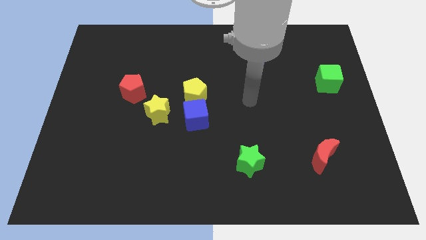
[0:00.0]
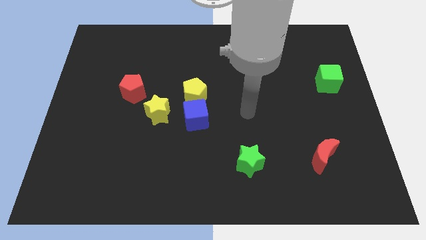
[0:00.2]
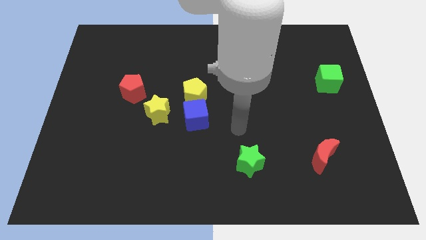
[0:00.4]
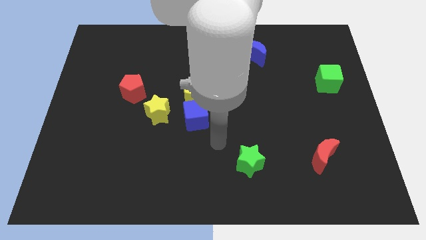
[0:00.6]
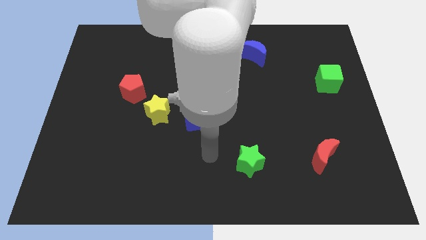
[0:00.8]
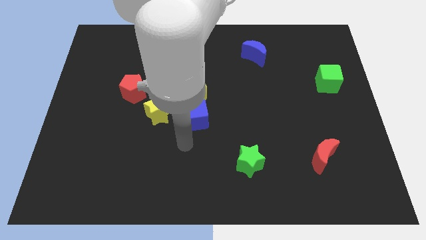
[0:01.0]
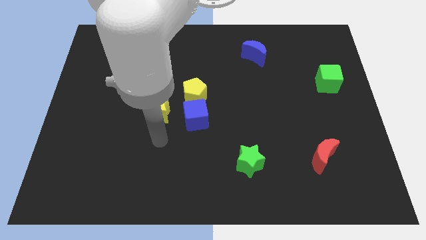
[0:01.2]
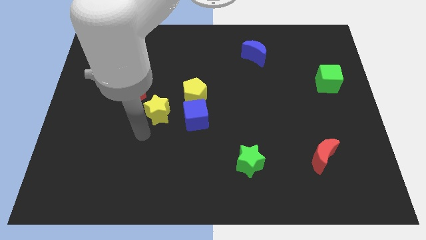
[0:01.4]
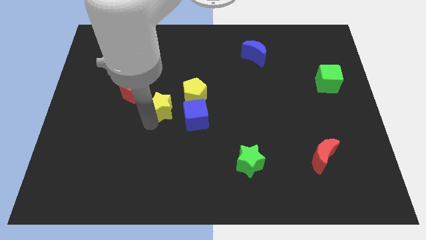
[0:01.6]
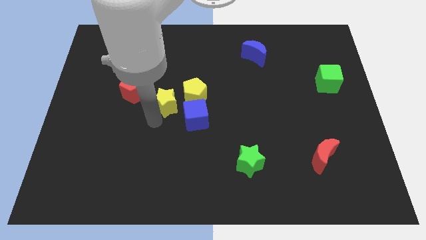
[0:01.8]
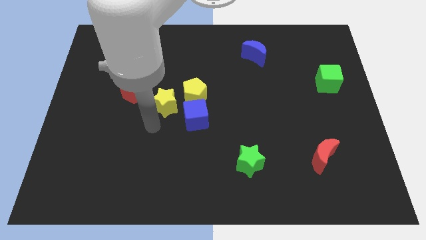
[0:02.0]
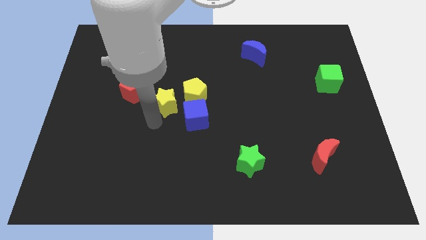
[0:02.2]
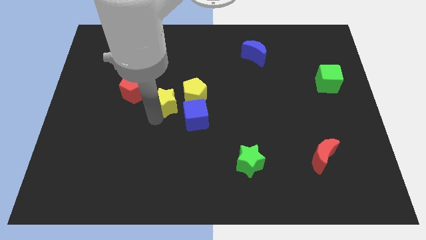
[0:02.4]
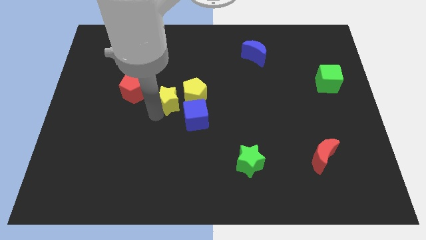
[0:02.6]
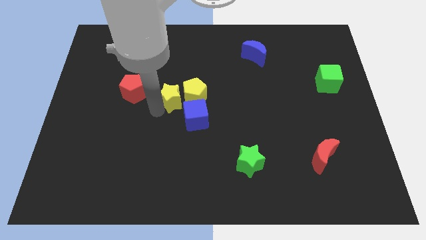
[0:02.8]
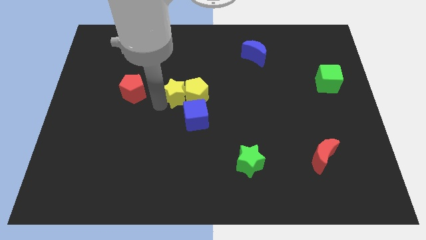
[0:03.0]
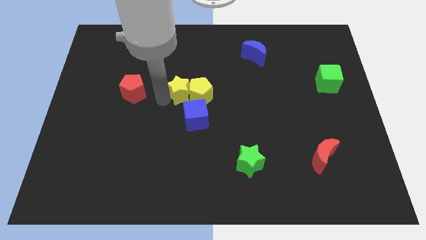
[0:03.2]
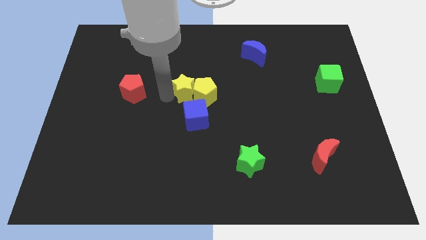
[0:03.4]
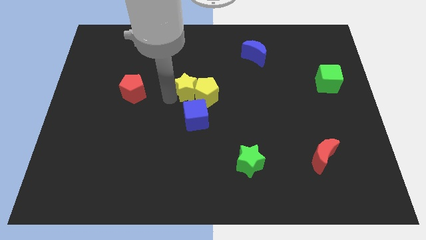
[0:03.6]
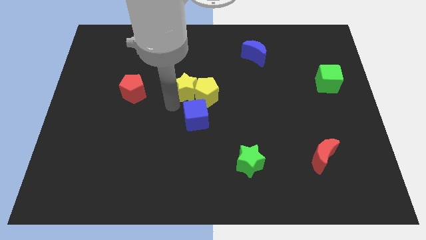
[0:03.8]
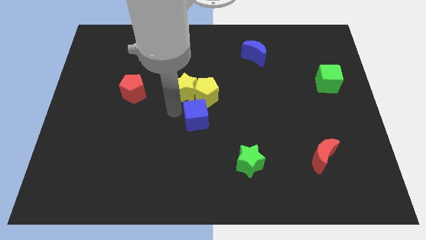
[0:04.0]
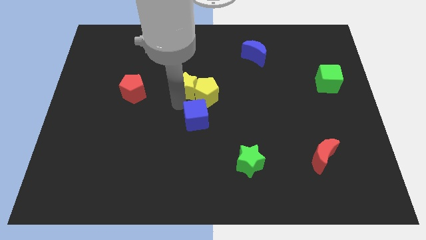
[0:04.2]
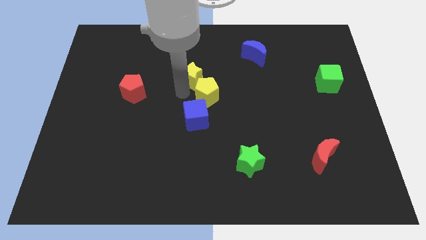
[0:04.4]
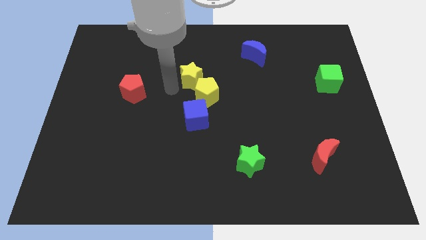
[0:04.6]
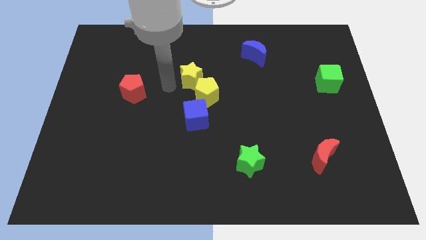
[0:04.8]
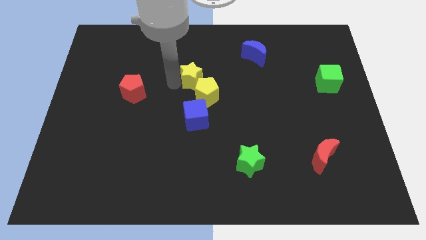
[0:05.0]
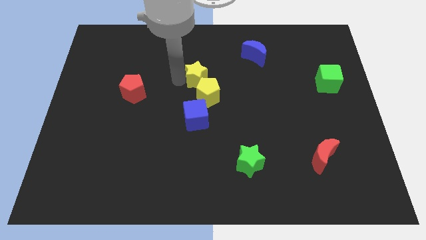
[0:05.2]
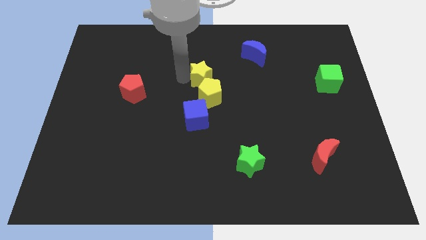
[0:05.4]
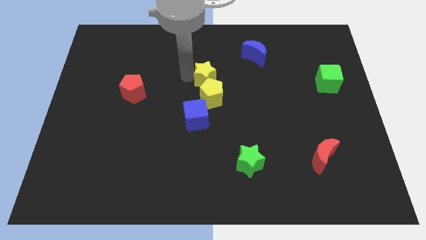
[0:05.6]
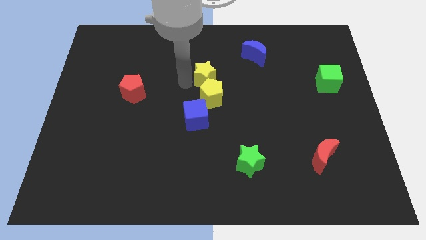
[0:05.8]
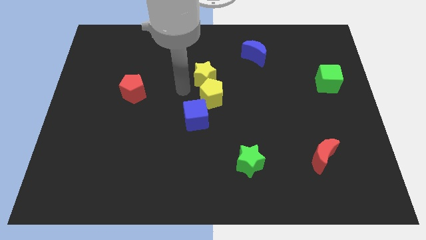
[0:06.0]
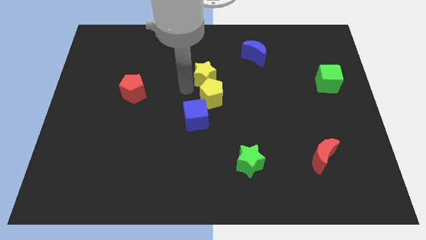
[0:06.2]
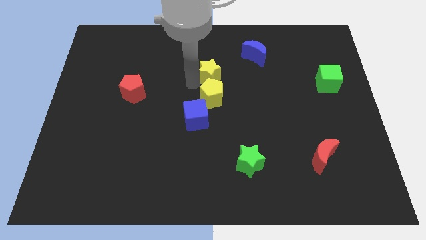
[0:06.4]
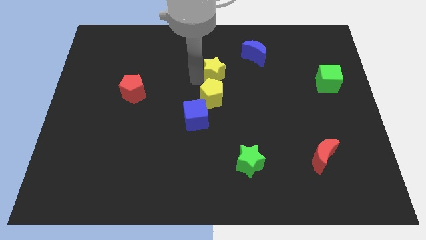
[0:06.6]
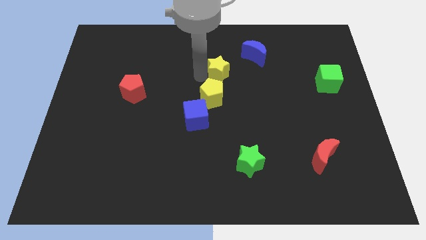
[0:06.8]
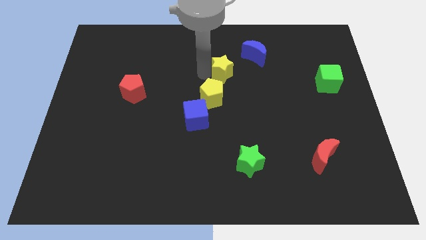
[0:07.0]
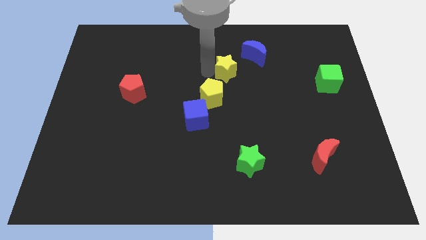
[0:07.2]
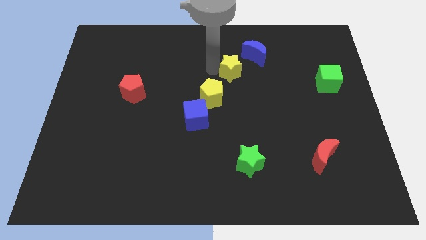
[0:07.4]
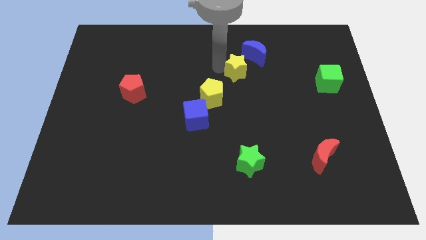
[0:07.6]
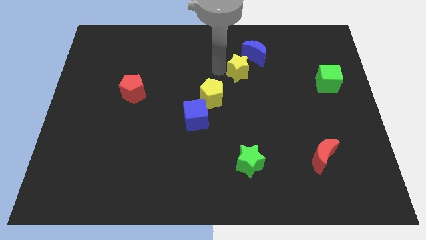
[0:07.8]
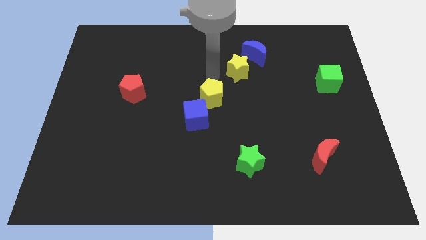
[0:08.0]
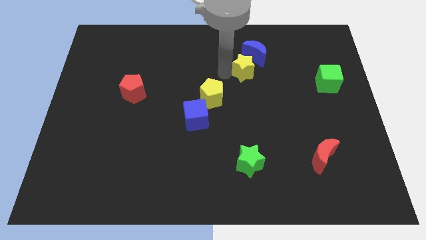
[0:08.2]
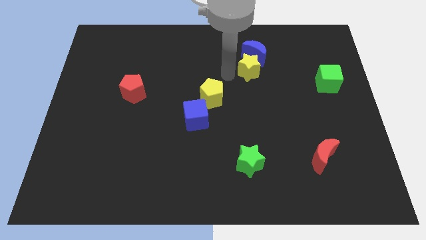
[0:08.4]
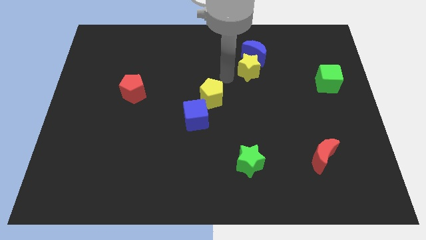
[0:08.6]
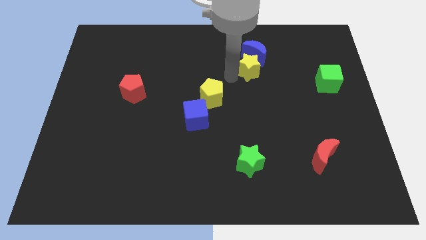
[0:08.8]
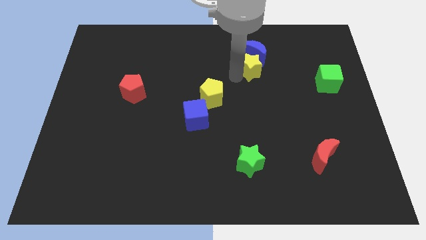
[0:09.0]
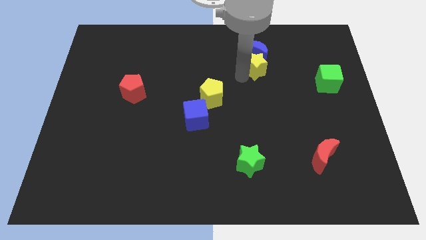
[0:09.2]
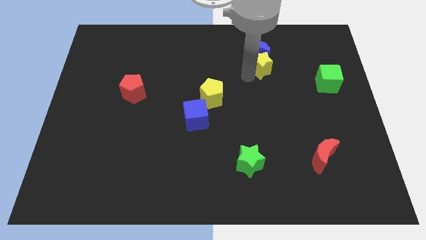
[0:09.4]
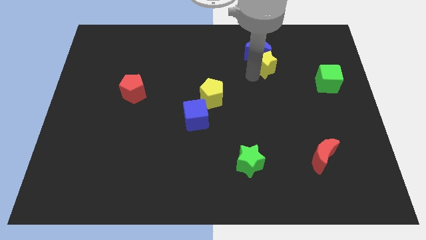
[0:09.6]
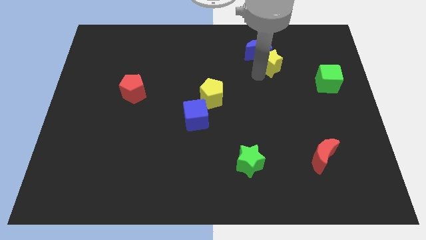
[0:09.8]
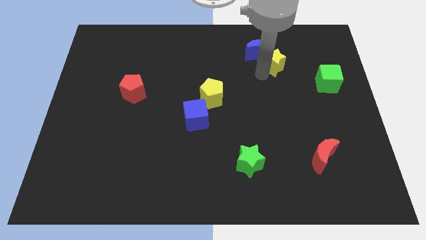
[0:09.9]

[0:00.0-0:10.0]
move the yellow star just right of the blue moon

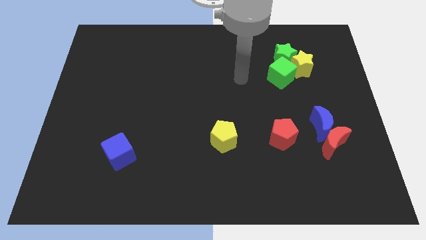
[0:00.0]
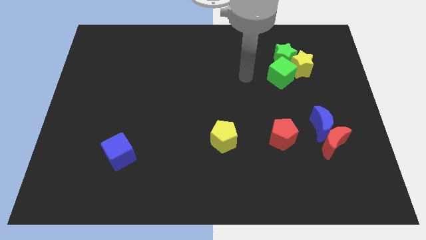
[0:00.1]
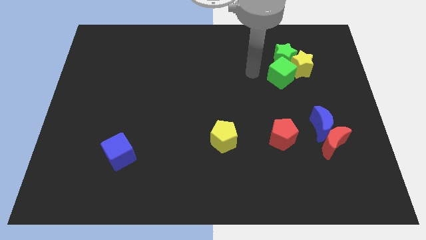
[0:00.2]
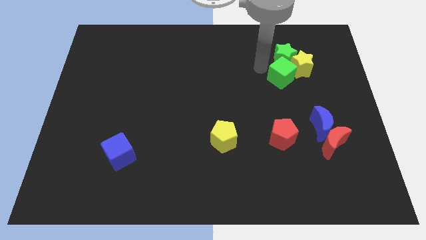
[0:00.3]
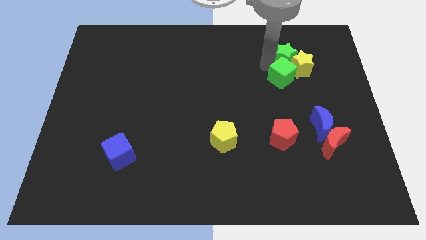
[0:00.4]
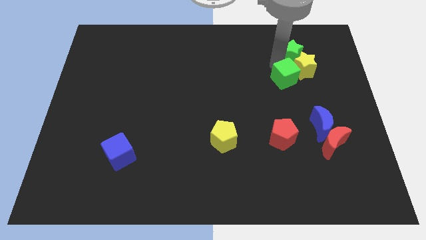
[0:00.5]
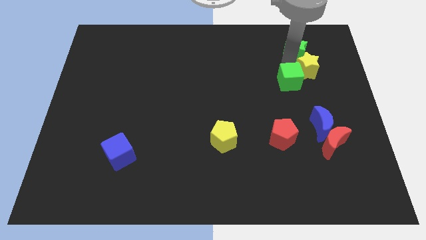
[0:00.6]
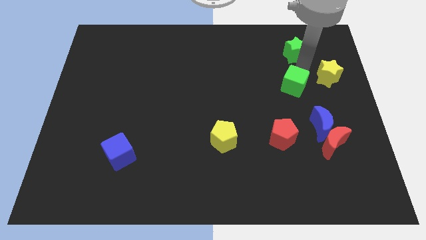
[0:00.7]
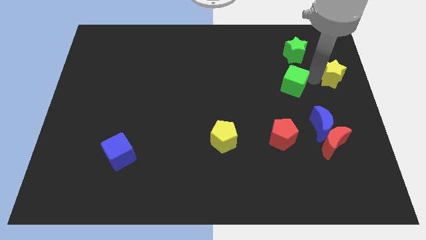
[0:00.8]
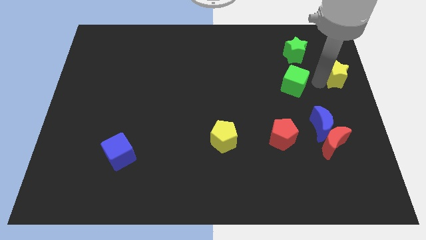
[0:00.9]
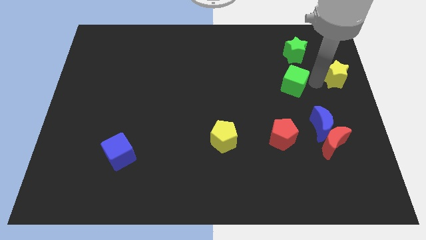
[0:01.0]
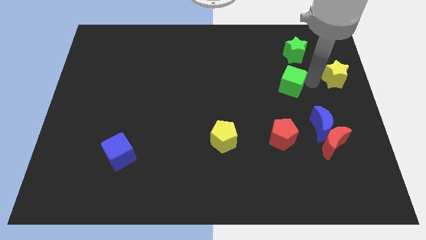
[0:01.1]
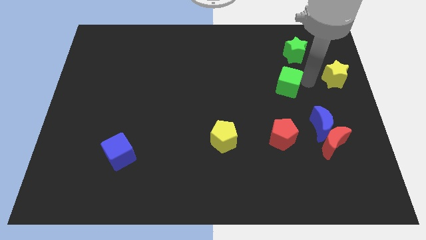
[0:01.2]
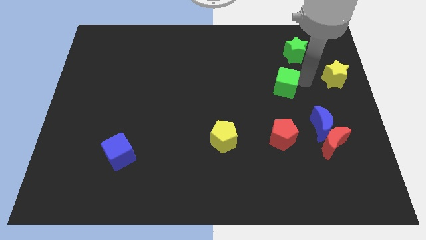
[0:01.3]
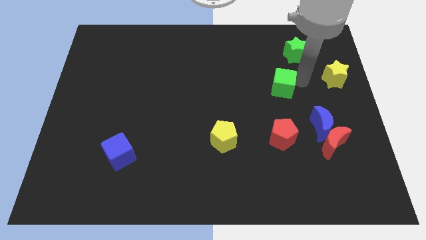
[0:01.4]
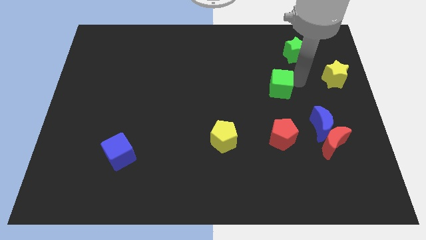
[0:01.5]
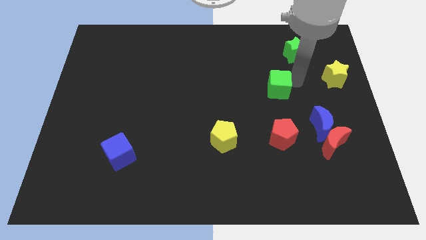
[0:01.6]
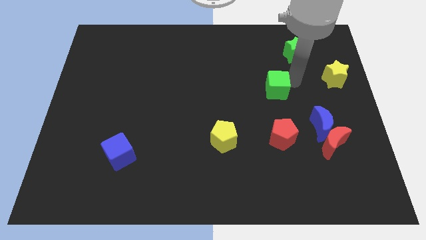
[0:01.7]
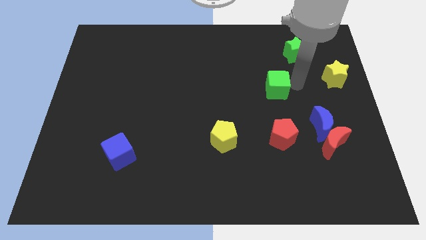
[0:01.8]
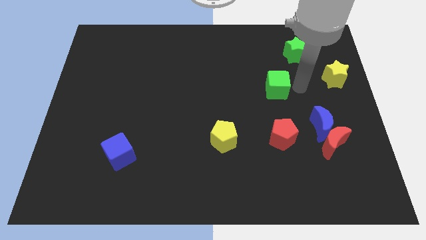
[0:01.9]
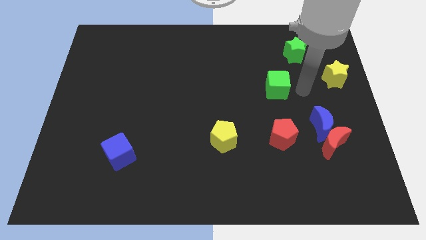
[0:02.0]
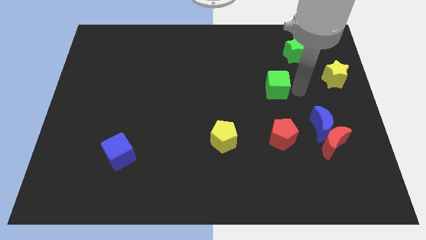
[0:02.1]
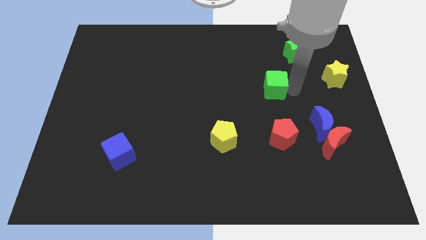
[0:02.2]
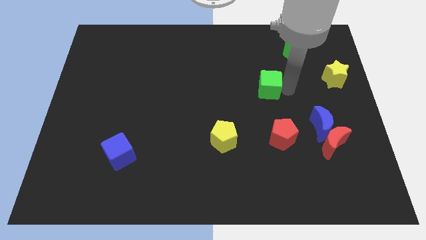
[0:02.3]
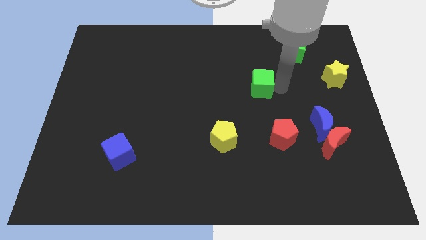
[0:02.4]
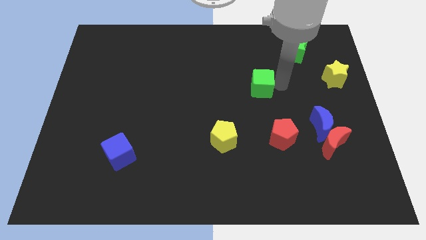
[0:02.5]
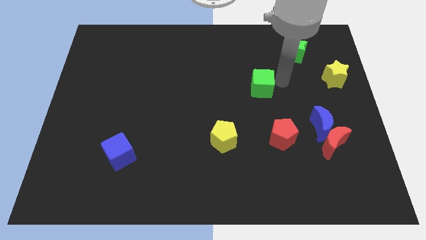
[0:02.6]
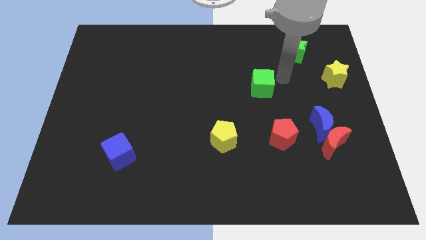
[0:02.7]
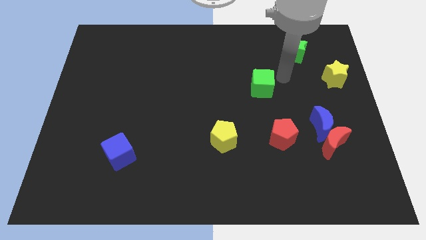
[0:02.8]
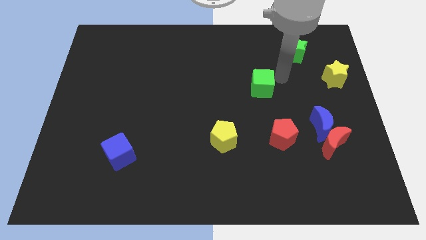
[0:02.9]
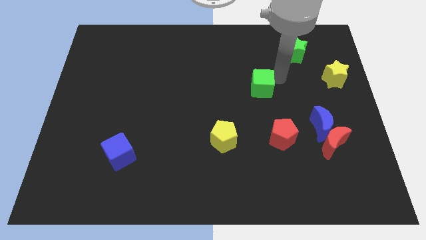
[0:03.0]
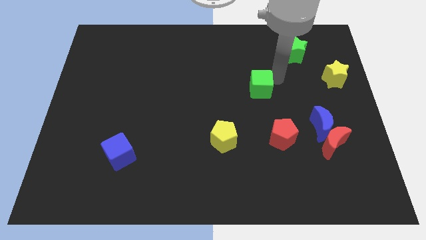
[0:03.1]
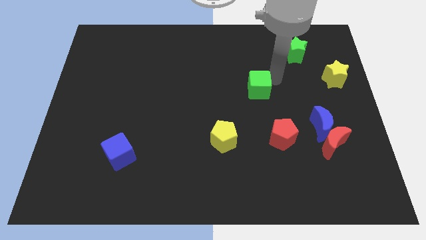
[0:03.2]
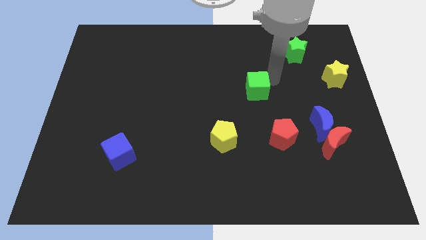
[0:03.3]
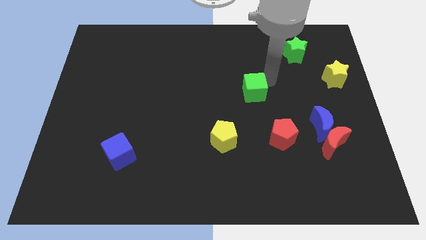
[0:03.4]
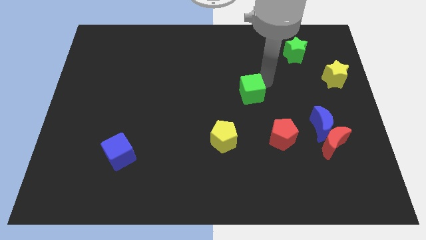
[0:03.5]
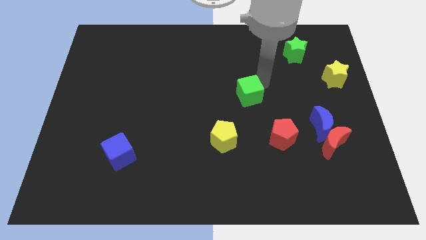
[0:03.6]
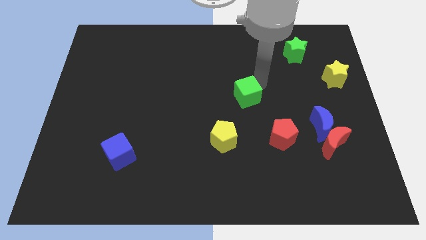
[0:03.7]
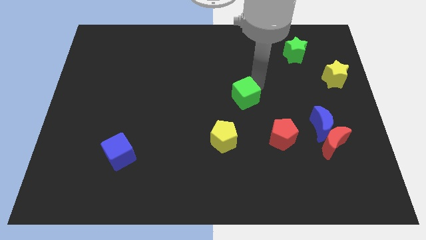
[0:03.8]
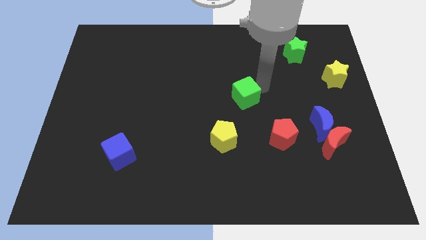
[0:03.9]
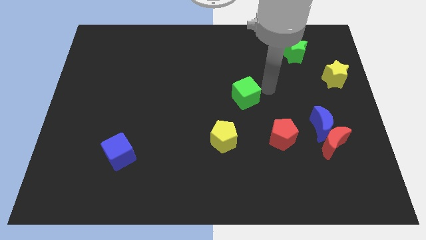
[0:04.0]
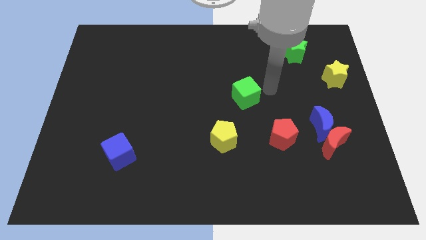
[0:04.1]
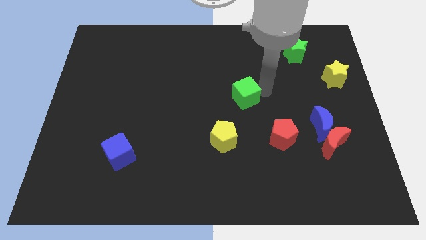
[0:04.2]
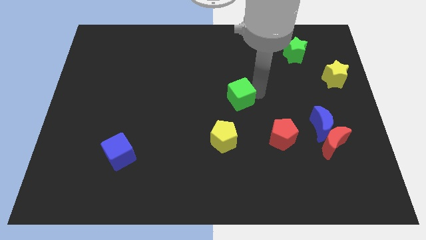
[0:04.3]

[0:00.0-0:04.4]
move the green cube above the yellow pentagon
